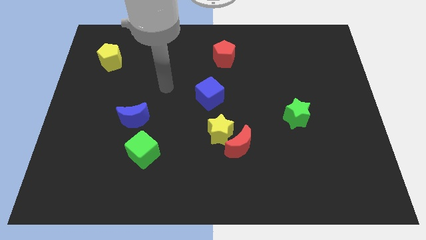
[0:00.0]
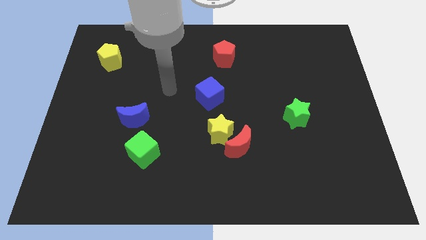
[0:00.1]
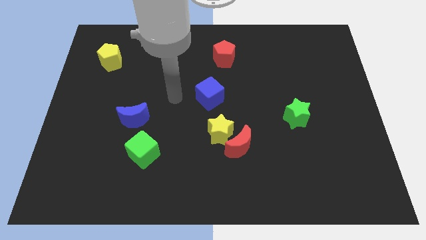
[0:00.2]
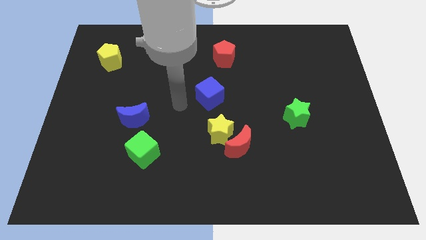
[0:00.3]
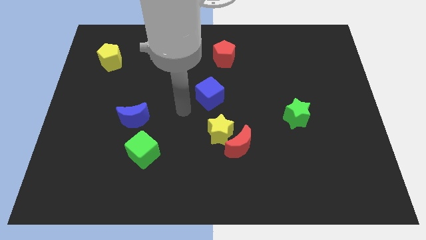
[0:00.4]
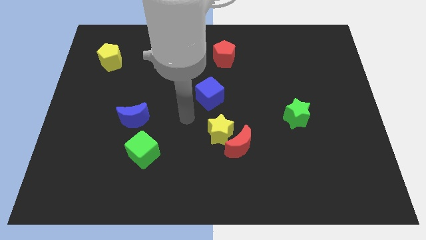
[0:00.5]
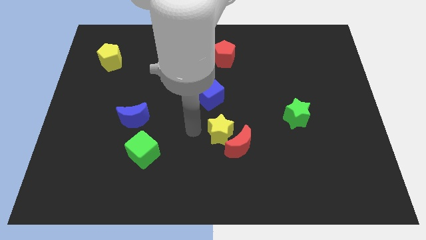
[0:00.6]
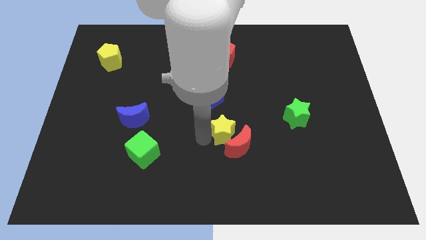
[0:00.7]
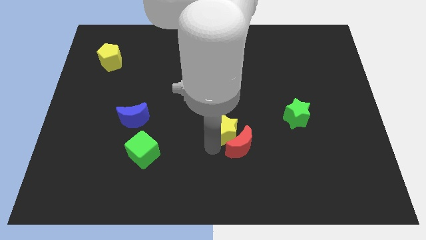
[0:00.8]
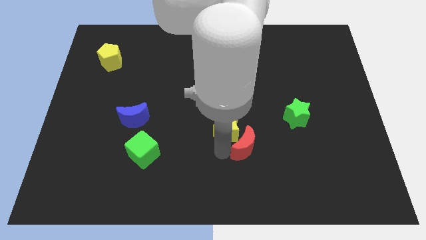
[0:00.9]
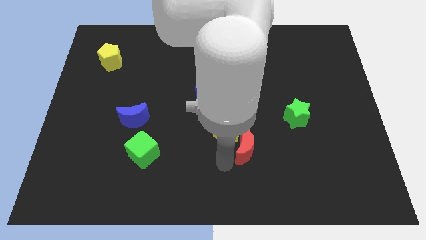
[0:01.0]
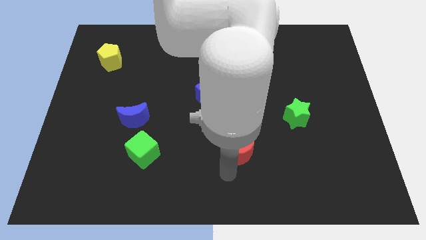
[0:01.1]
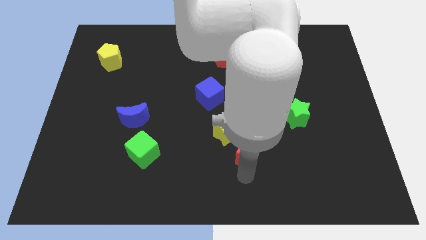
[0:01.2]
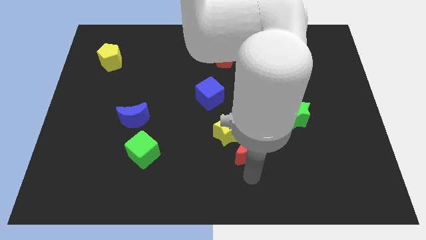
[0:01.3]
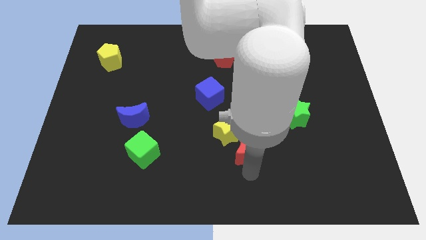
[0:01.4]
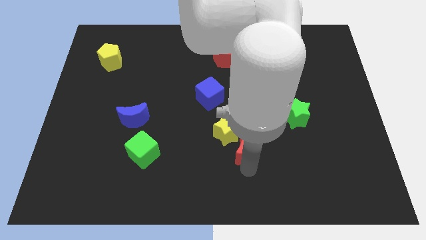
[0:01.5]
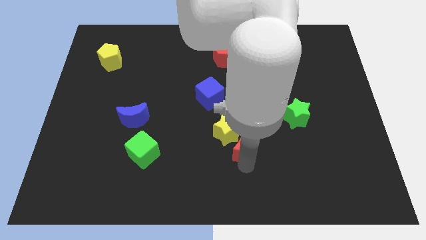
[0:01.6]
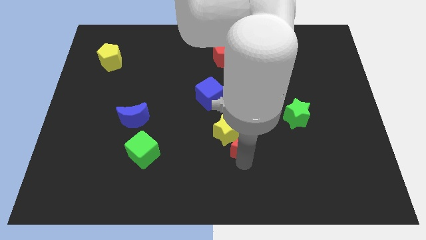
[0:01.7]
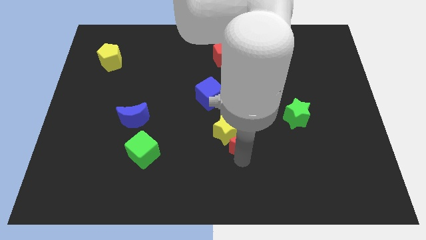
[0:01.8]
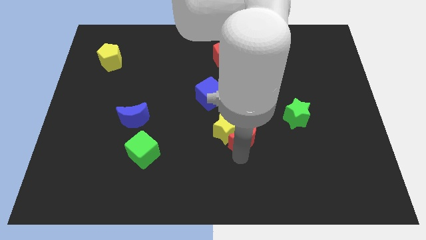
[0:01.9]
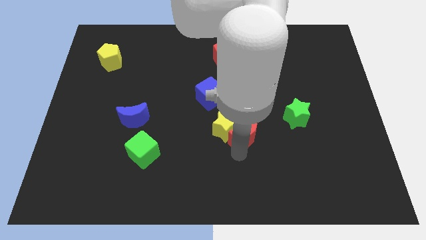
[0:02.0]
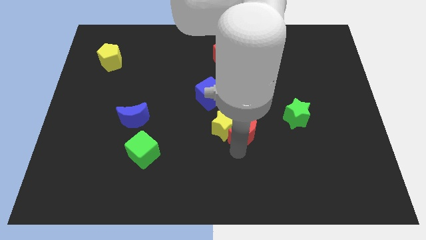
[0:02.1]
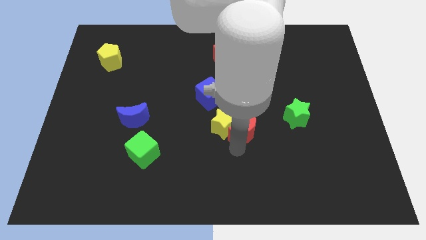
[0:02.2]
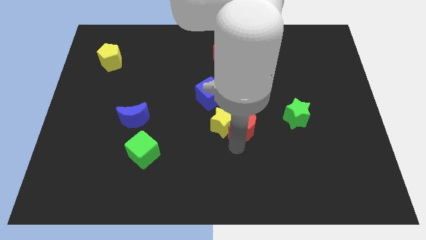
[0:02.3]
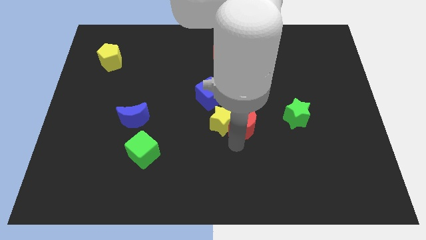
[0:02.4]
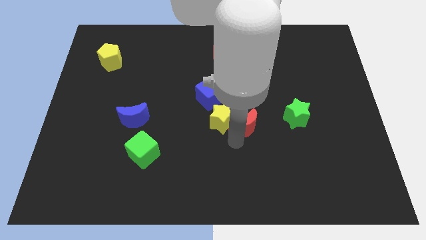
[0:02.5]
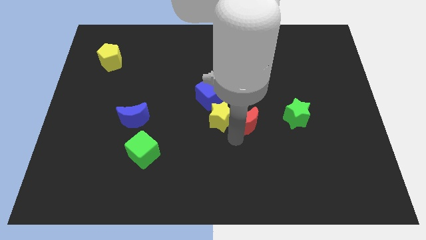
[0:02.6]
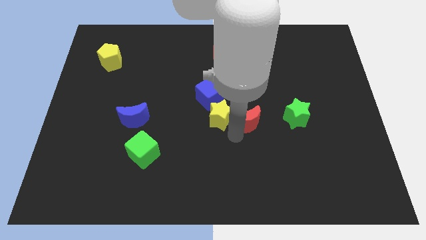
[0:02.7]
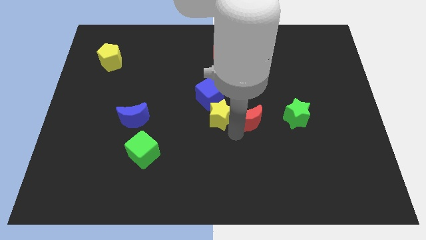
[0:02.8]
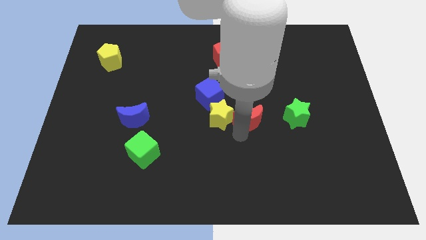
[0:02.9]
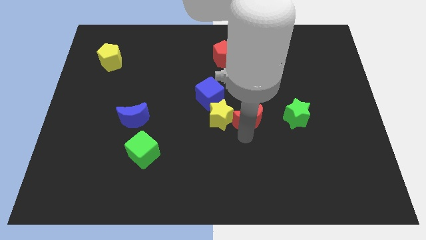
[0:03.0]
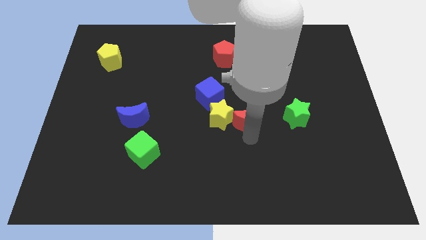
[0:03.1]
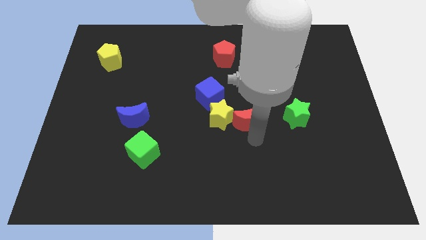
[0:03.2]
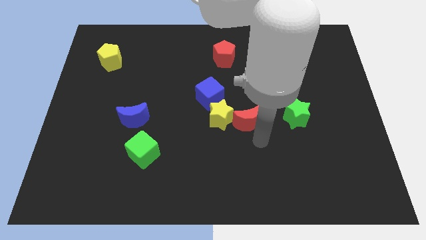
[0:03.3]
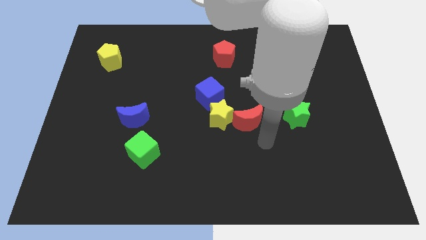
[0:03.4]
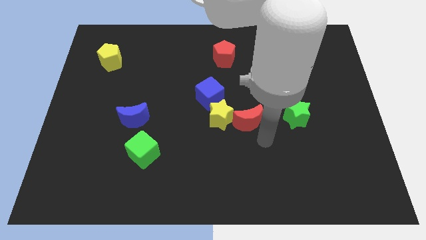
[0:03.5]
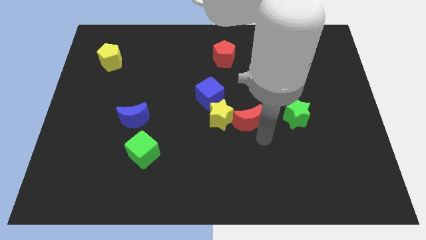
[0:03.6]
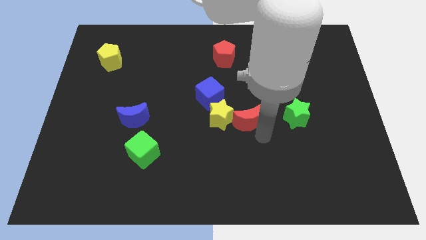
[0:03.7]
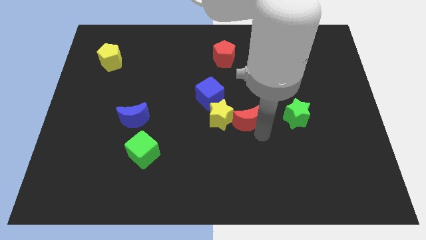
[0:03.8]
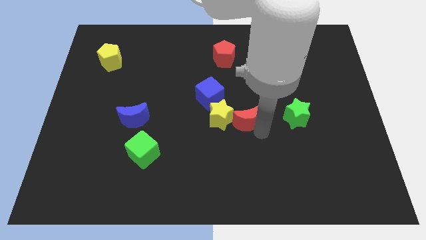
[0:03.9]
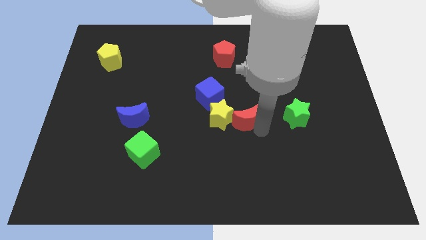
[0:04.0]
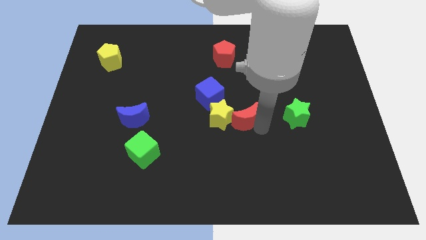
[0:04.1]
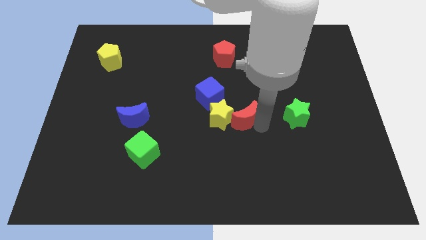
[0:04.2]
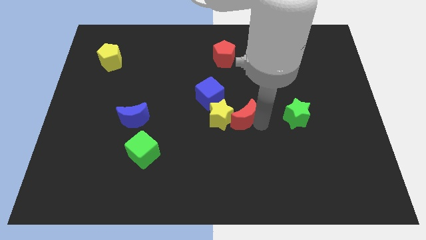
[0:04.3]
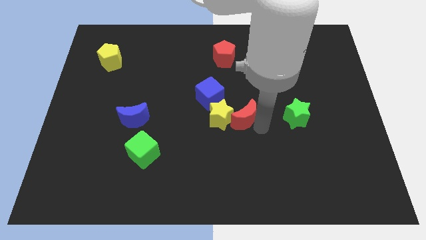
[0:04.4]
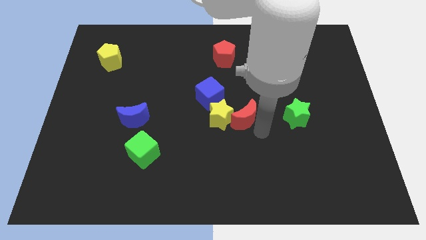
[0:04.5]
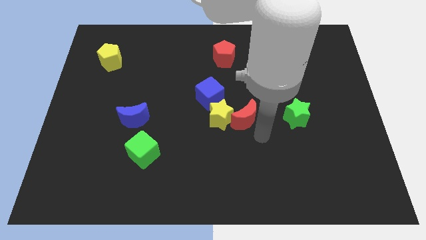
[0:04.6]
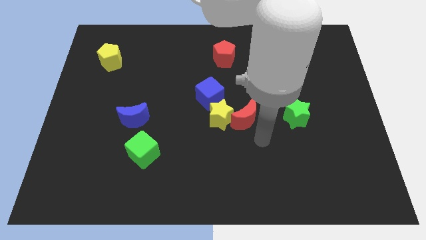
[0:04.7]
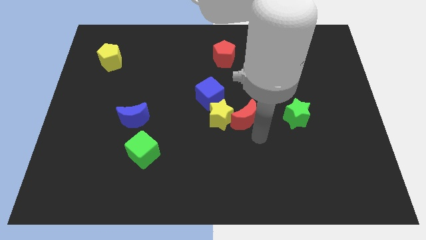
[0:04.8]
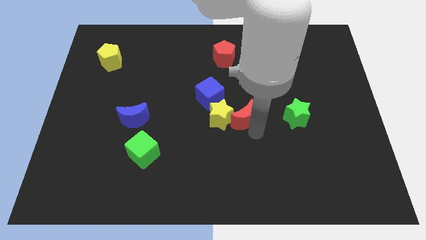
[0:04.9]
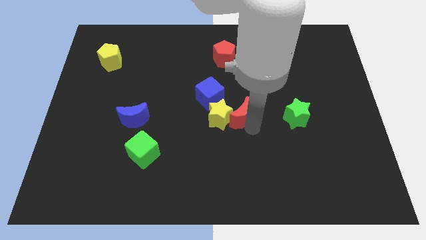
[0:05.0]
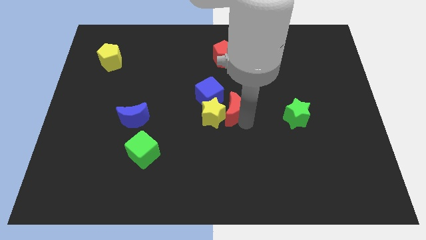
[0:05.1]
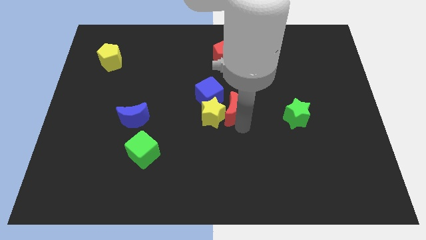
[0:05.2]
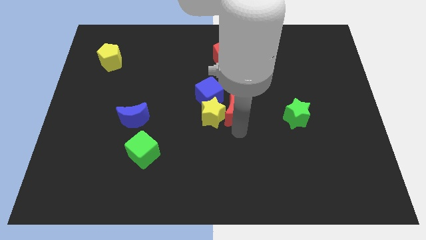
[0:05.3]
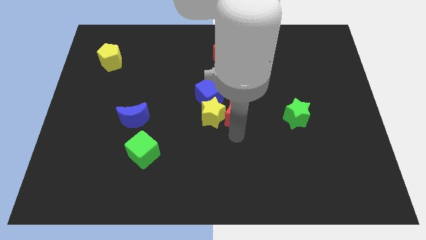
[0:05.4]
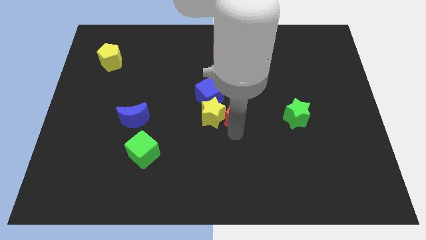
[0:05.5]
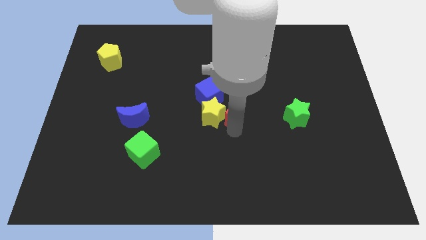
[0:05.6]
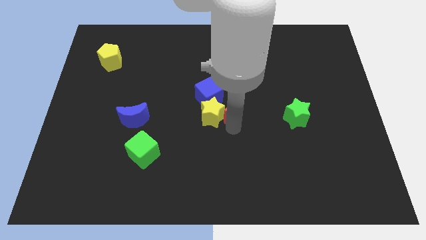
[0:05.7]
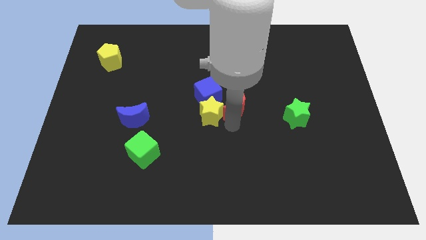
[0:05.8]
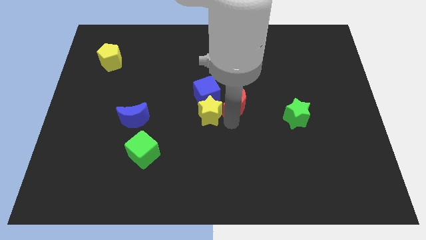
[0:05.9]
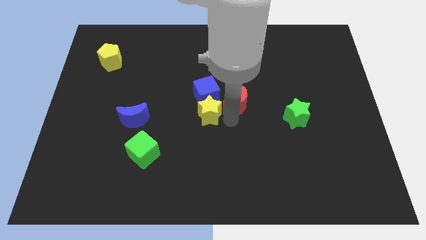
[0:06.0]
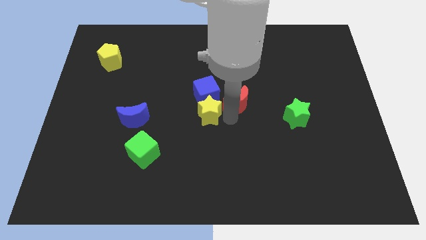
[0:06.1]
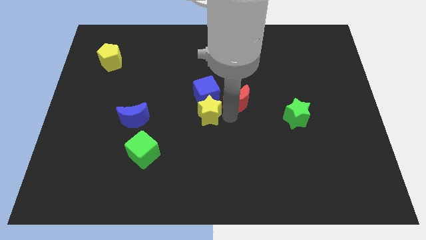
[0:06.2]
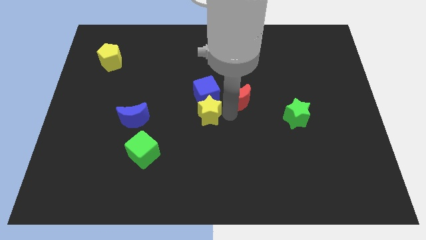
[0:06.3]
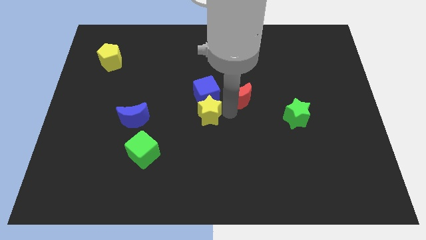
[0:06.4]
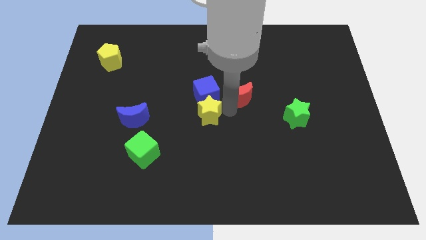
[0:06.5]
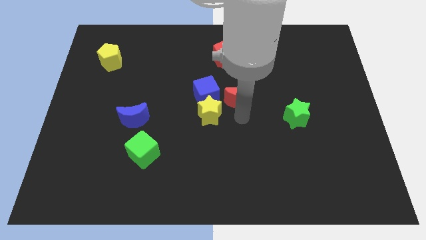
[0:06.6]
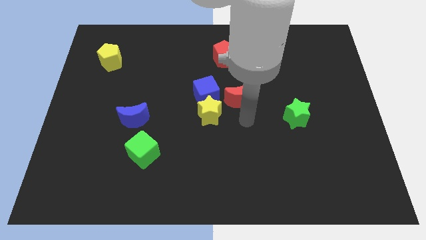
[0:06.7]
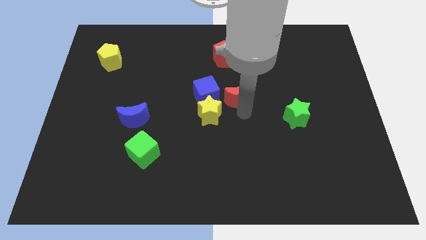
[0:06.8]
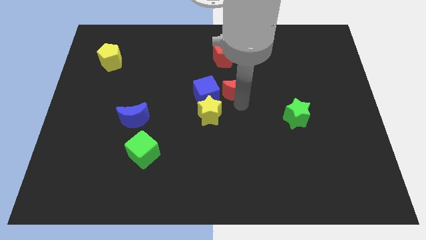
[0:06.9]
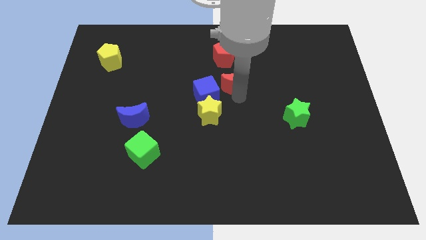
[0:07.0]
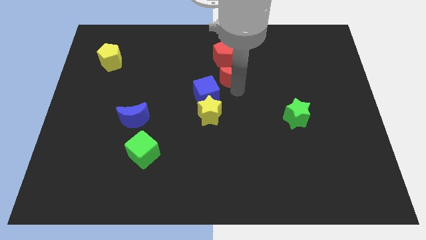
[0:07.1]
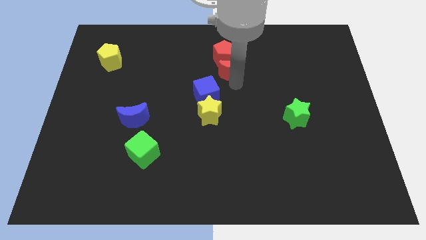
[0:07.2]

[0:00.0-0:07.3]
move the red moon to the red pentagon
